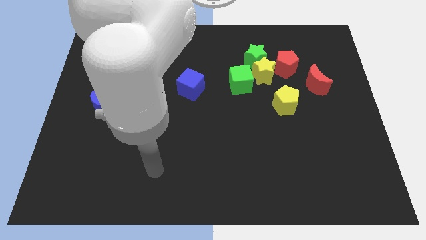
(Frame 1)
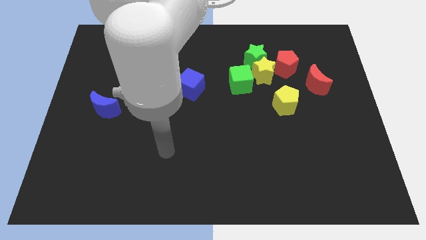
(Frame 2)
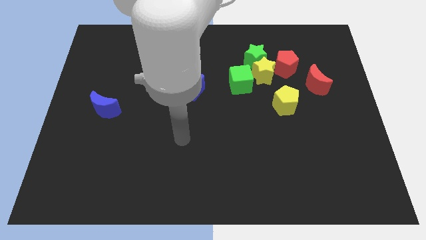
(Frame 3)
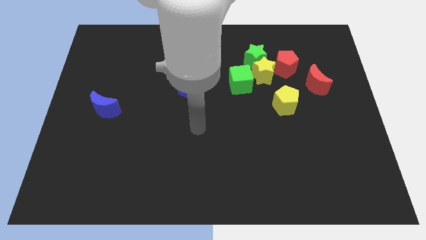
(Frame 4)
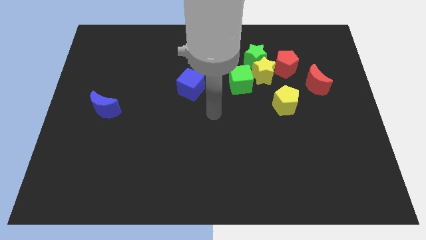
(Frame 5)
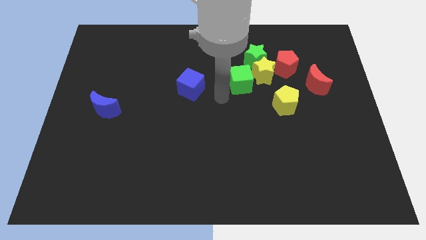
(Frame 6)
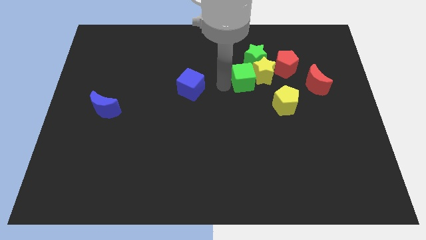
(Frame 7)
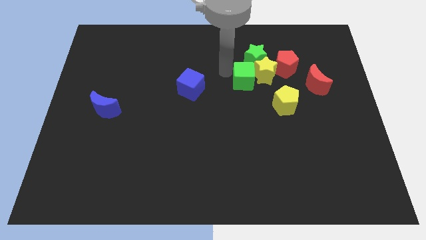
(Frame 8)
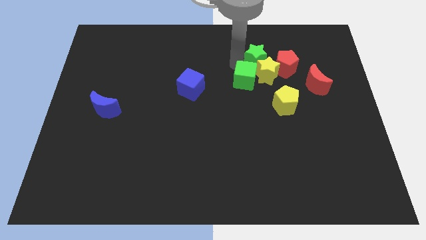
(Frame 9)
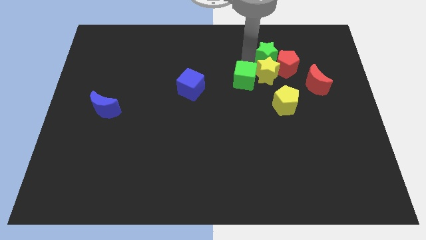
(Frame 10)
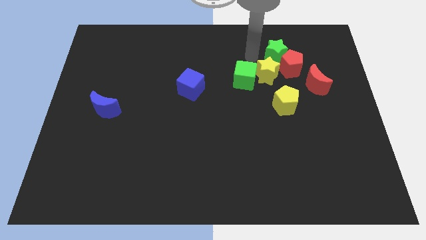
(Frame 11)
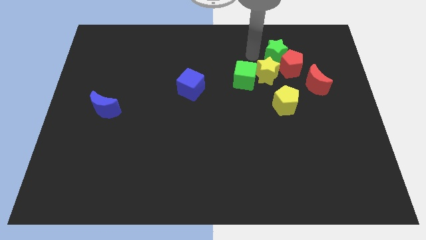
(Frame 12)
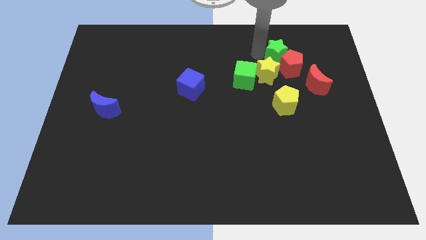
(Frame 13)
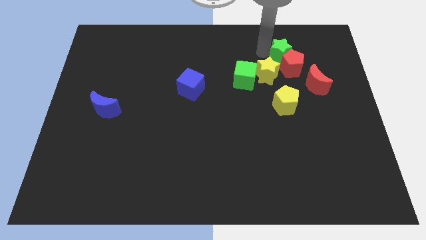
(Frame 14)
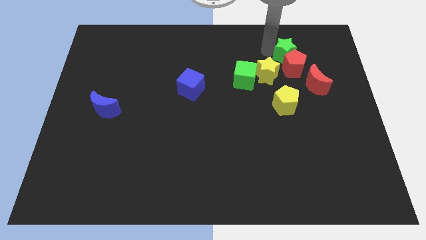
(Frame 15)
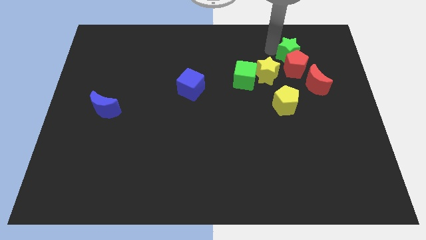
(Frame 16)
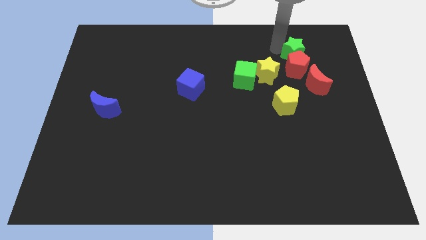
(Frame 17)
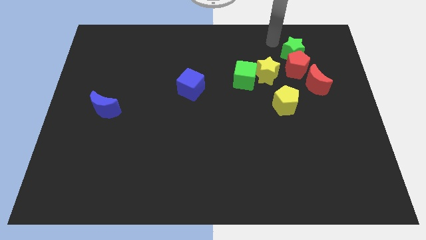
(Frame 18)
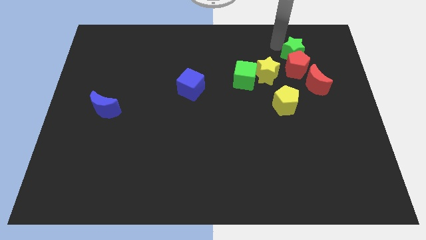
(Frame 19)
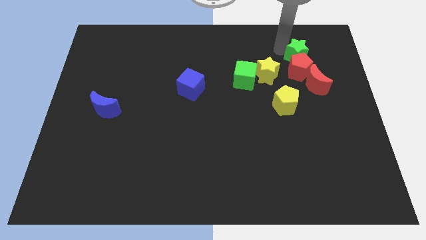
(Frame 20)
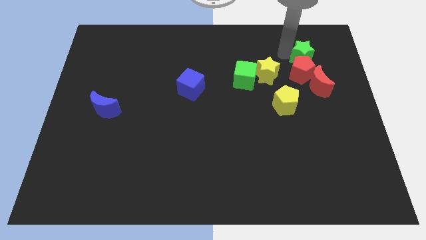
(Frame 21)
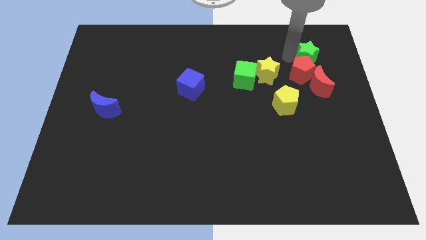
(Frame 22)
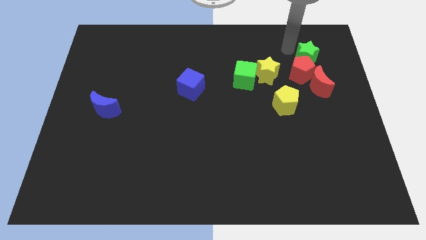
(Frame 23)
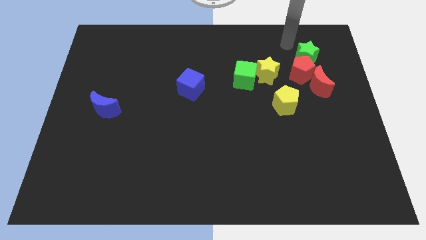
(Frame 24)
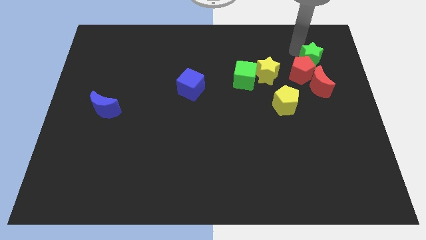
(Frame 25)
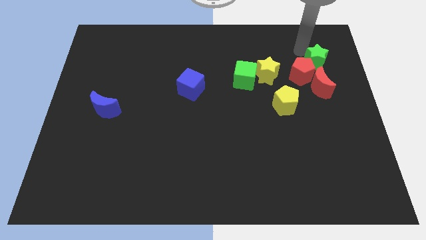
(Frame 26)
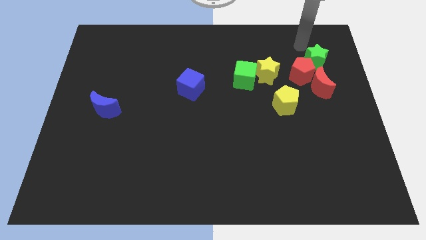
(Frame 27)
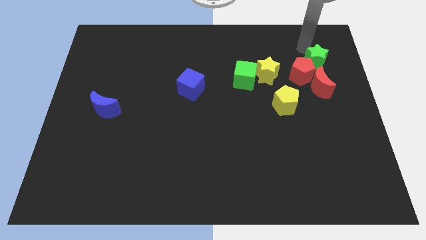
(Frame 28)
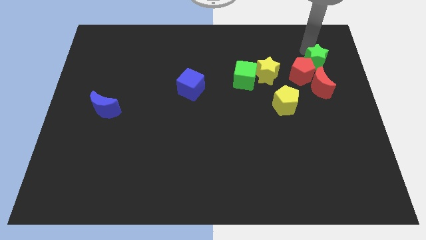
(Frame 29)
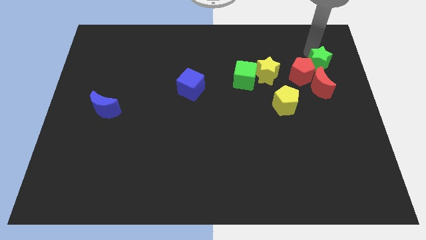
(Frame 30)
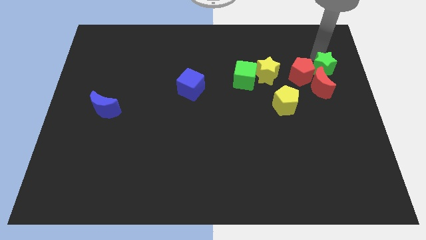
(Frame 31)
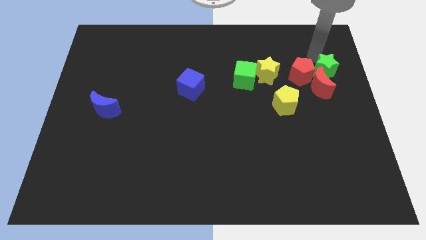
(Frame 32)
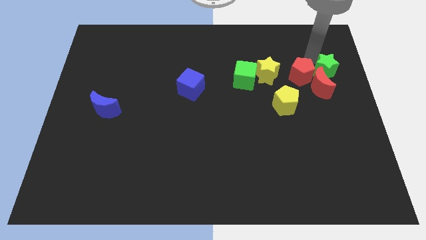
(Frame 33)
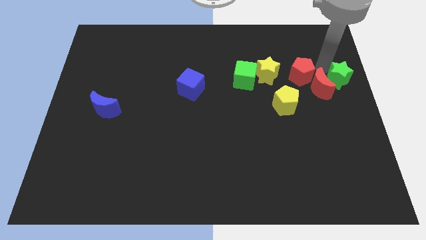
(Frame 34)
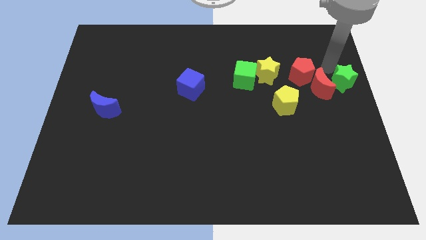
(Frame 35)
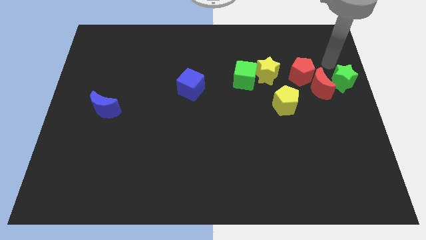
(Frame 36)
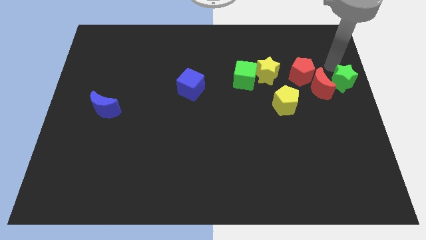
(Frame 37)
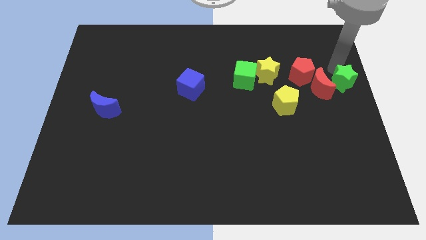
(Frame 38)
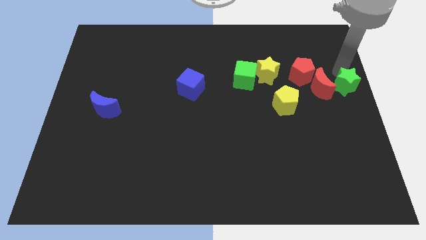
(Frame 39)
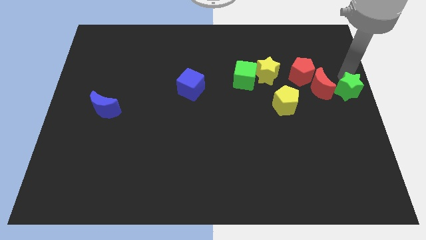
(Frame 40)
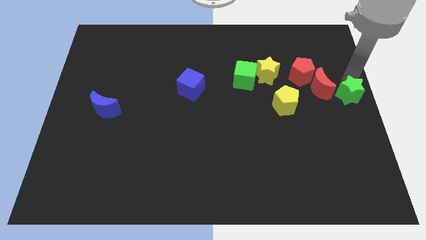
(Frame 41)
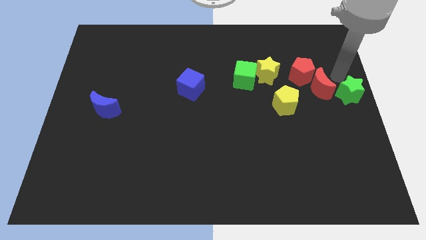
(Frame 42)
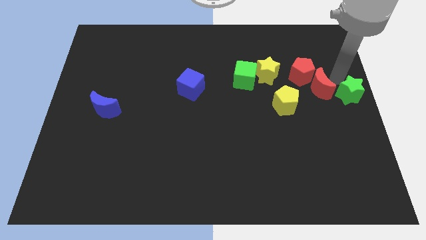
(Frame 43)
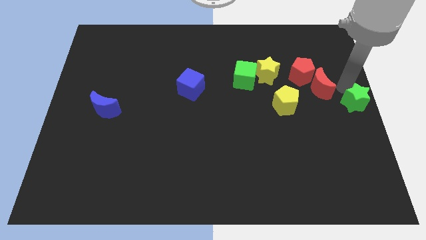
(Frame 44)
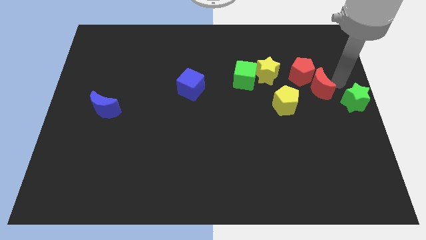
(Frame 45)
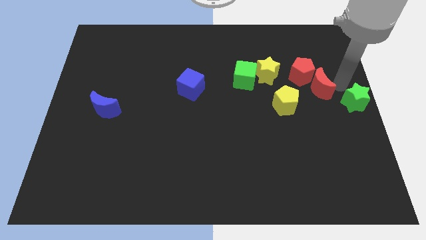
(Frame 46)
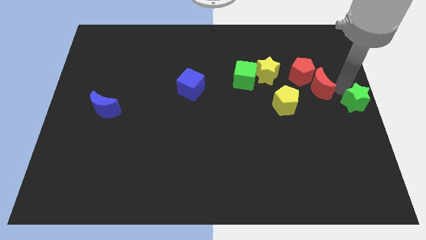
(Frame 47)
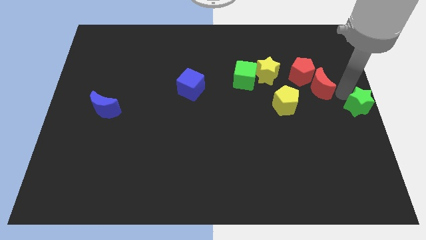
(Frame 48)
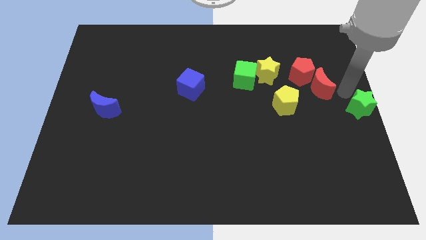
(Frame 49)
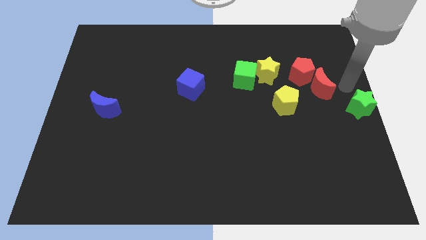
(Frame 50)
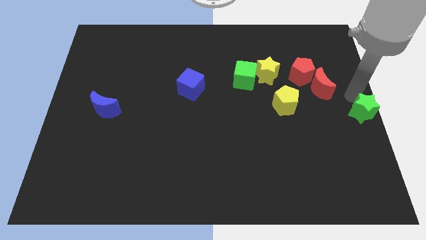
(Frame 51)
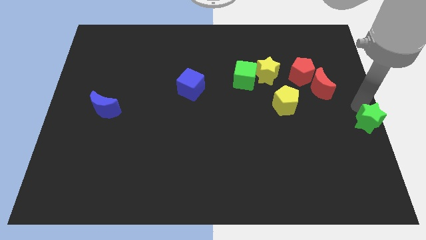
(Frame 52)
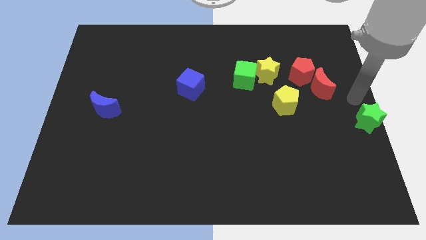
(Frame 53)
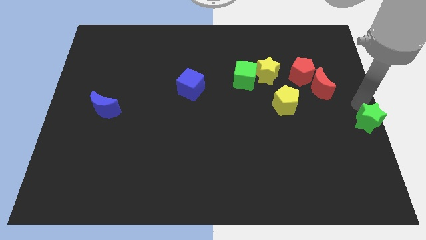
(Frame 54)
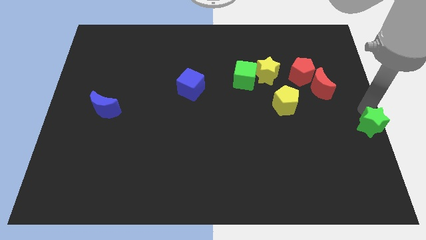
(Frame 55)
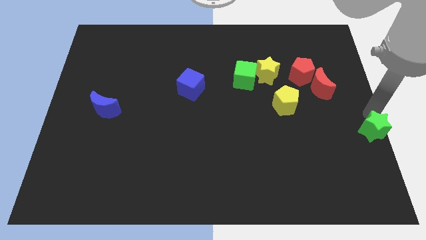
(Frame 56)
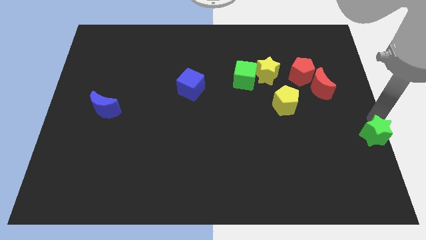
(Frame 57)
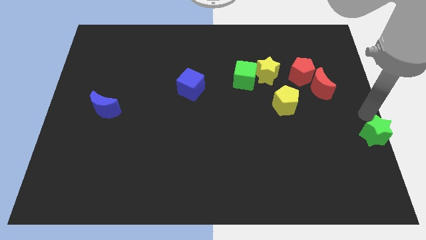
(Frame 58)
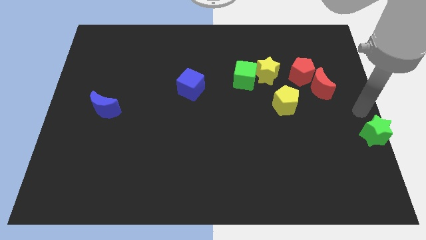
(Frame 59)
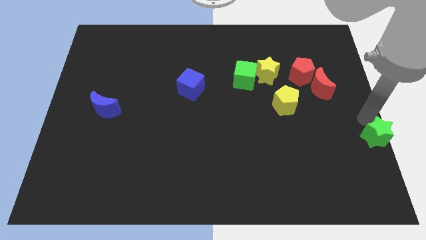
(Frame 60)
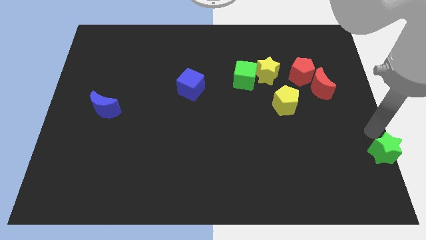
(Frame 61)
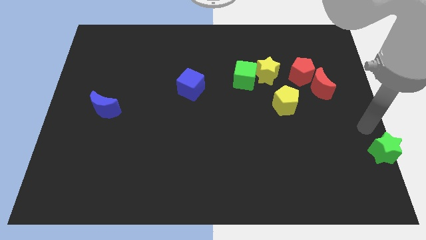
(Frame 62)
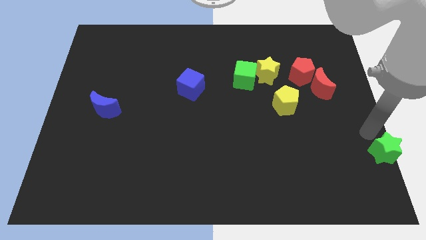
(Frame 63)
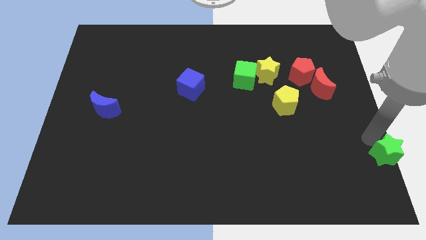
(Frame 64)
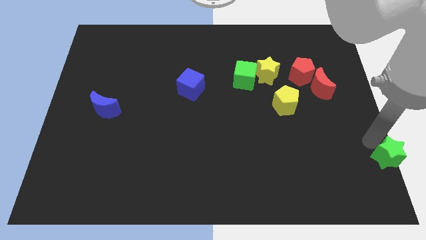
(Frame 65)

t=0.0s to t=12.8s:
put the green star to the bottom right of the board

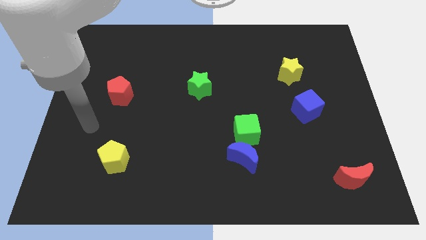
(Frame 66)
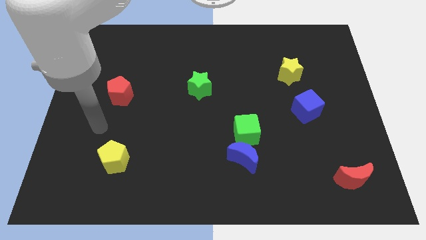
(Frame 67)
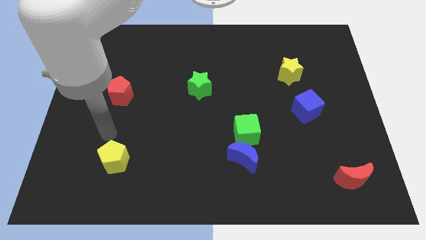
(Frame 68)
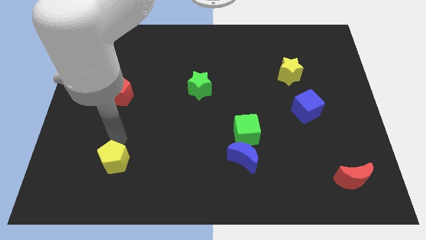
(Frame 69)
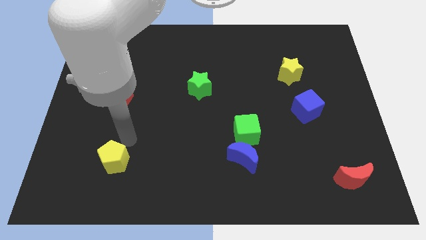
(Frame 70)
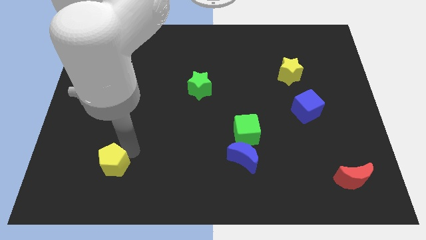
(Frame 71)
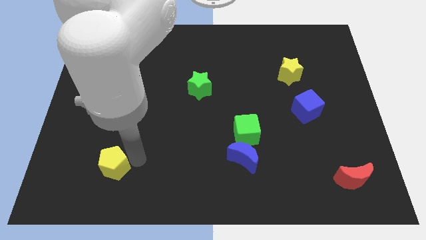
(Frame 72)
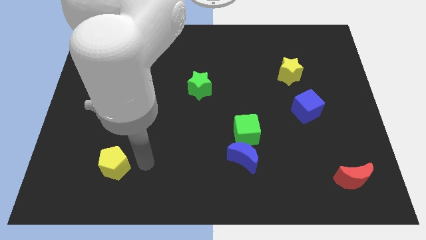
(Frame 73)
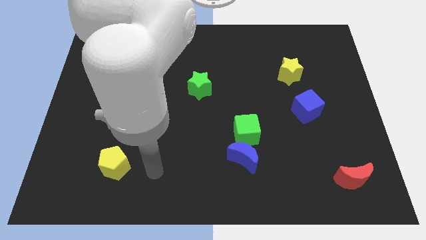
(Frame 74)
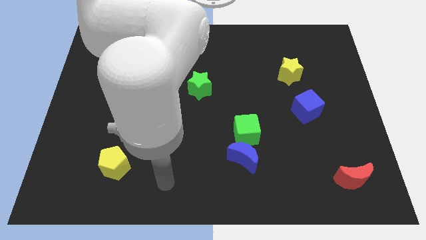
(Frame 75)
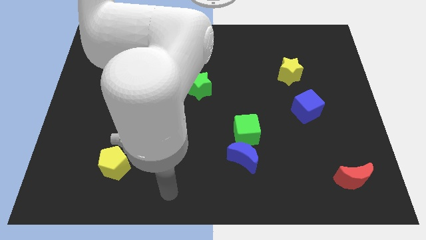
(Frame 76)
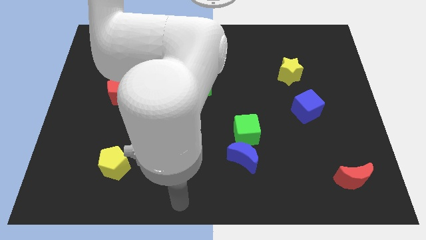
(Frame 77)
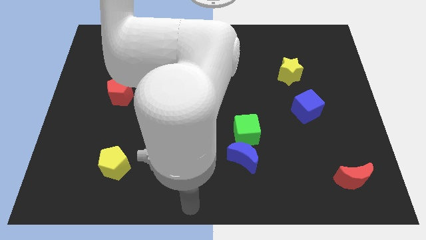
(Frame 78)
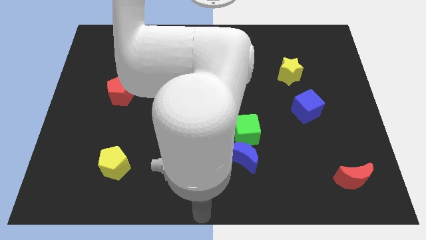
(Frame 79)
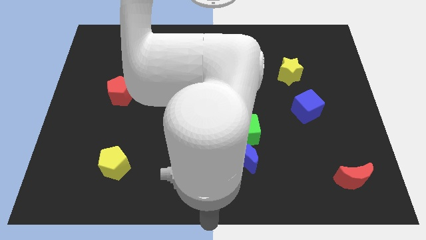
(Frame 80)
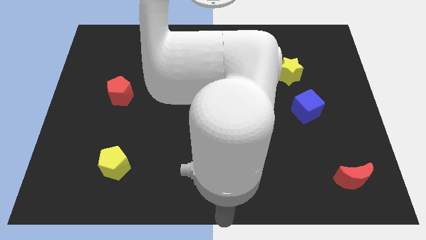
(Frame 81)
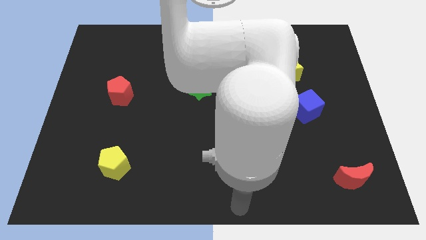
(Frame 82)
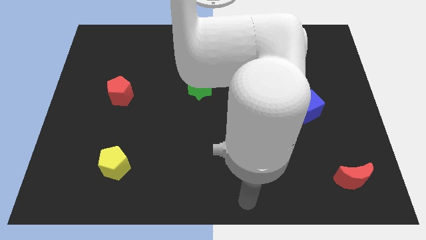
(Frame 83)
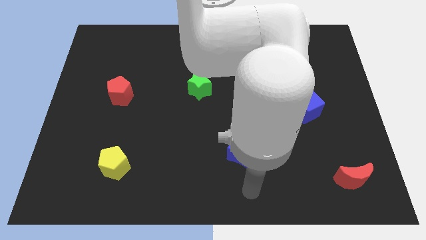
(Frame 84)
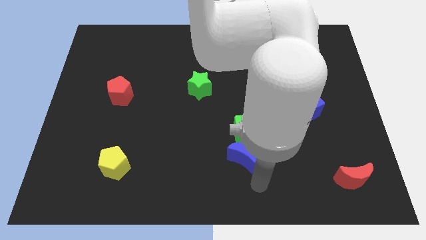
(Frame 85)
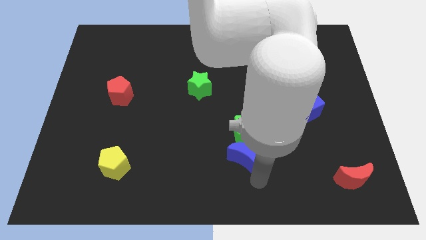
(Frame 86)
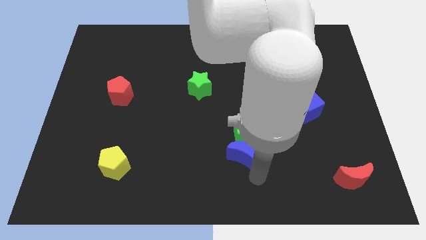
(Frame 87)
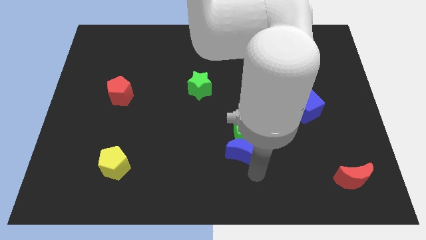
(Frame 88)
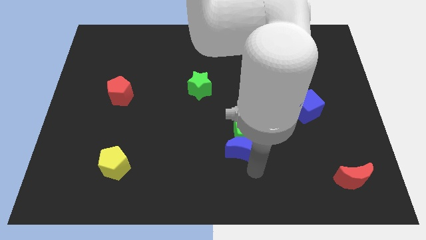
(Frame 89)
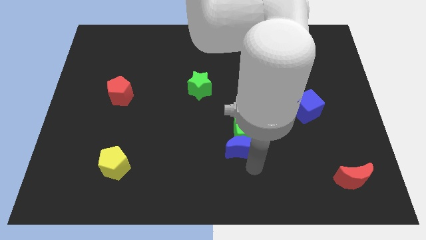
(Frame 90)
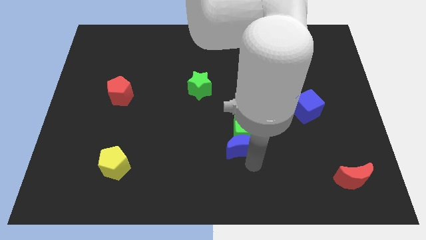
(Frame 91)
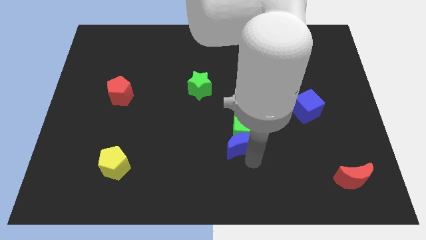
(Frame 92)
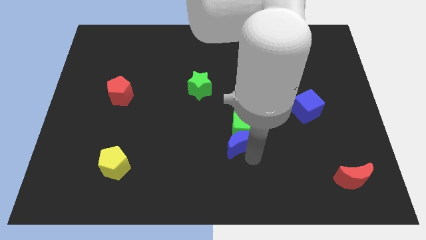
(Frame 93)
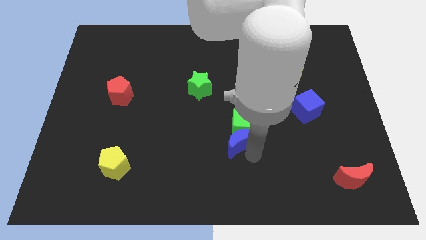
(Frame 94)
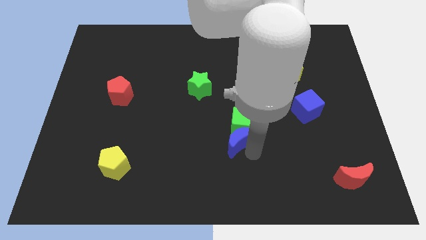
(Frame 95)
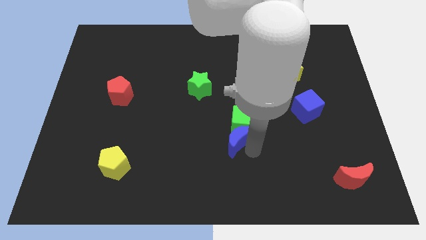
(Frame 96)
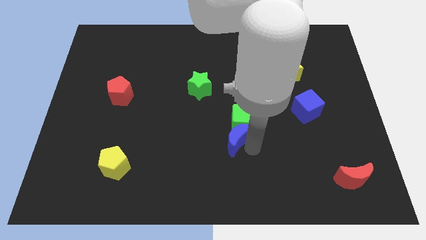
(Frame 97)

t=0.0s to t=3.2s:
slide the blue moon to the middle of the board
